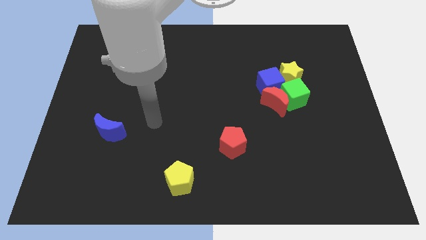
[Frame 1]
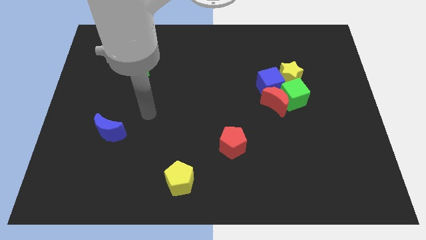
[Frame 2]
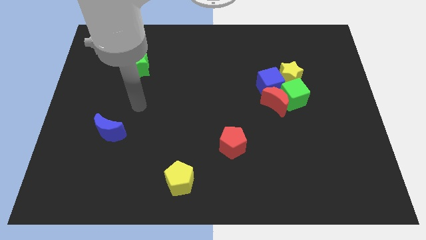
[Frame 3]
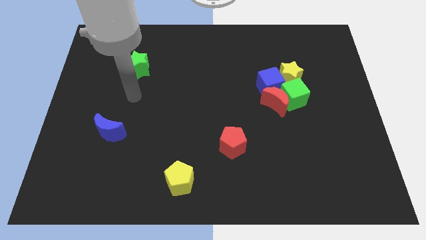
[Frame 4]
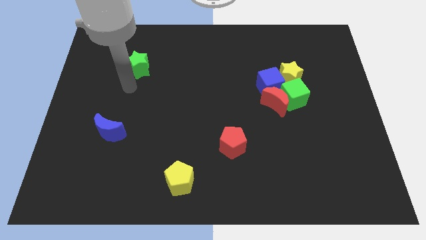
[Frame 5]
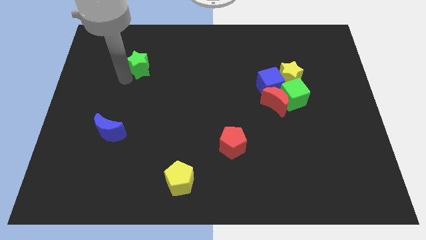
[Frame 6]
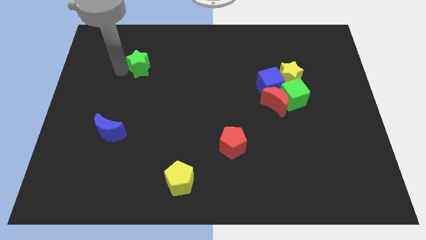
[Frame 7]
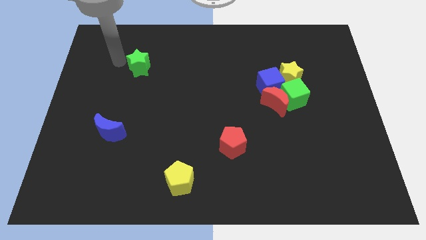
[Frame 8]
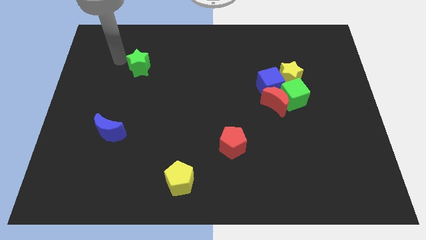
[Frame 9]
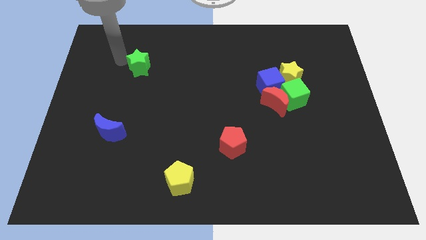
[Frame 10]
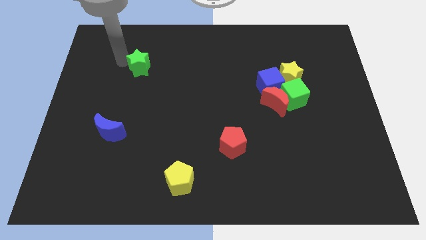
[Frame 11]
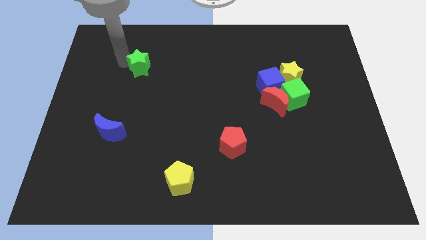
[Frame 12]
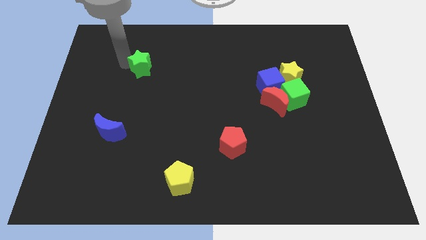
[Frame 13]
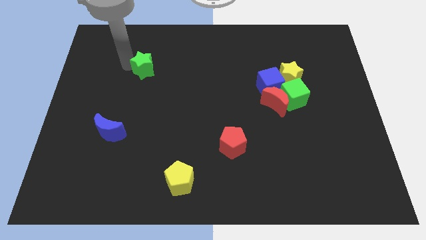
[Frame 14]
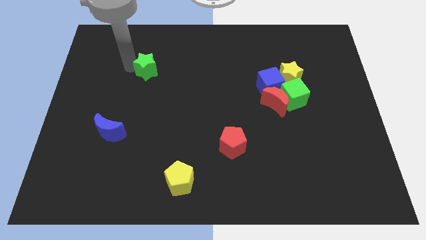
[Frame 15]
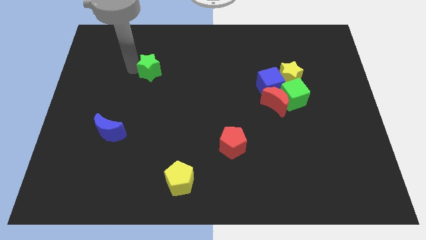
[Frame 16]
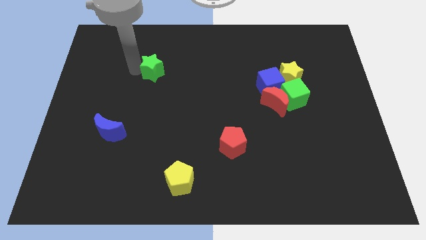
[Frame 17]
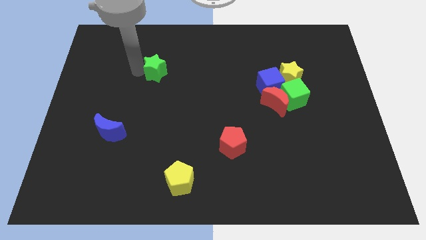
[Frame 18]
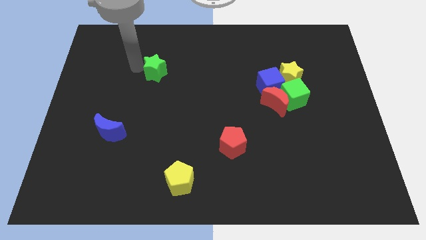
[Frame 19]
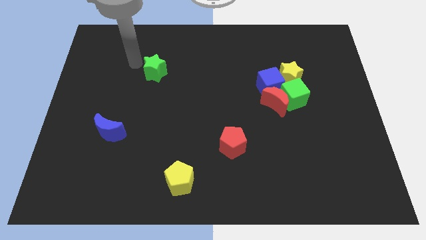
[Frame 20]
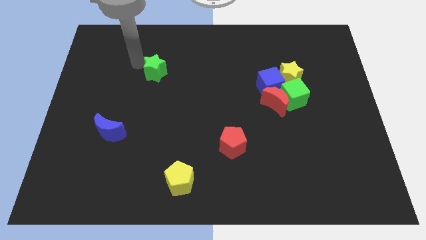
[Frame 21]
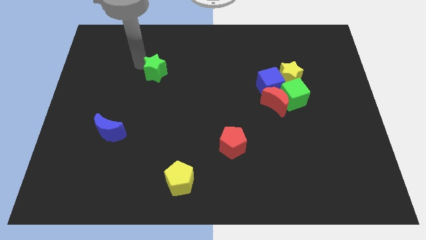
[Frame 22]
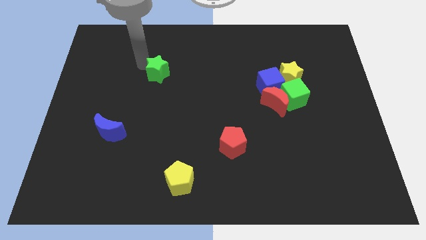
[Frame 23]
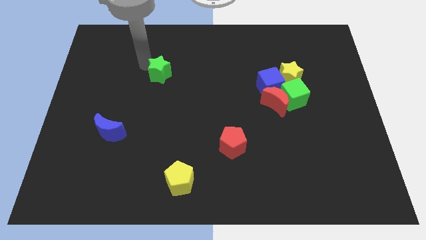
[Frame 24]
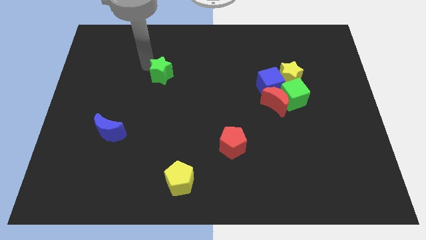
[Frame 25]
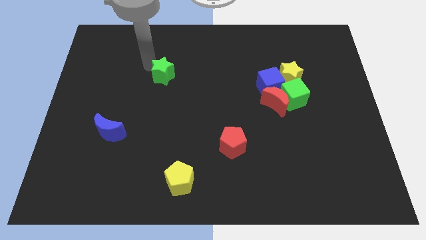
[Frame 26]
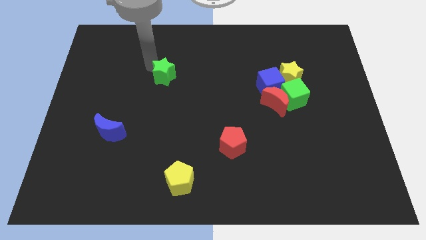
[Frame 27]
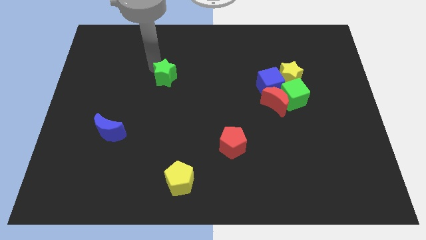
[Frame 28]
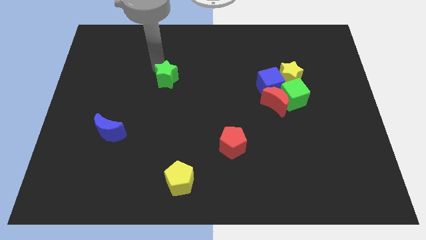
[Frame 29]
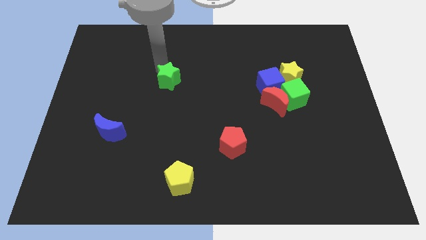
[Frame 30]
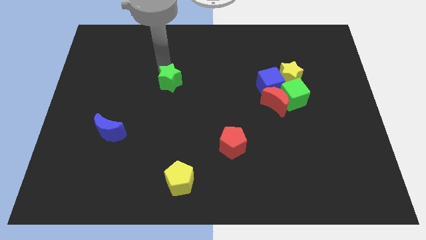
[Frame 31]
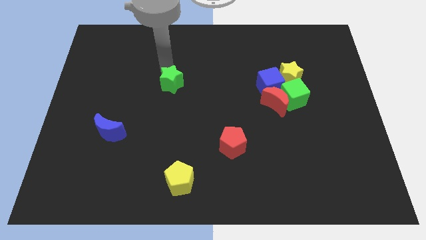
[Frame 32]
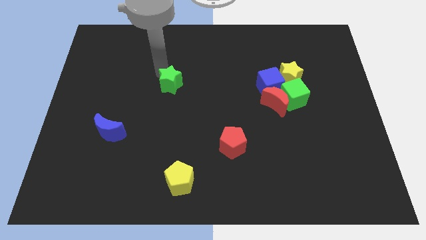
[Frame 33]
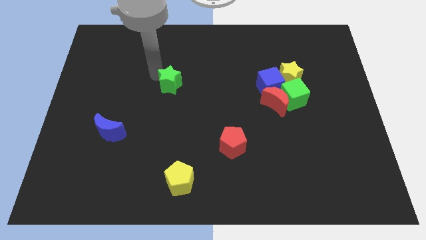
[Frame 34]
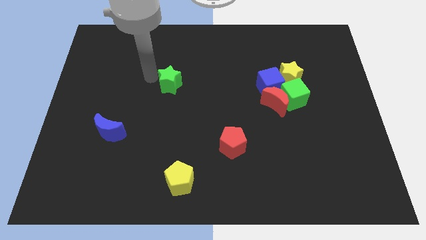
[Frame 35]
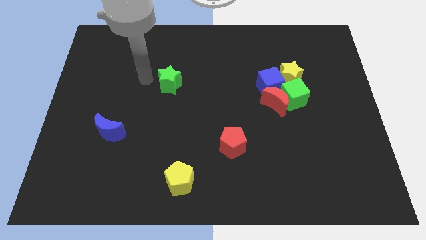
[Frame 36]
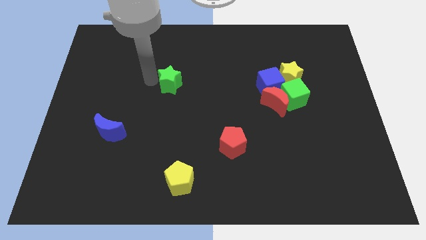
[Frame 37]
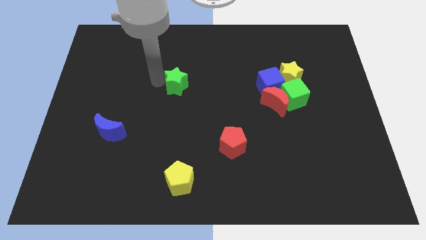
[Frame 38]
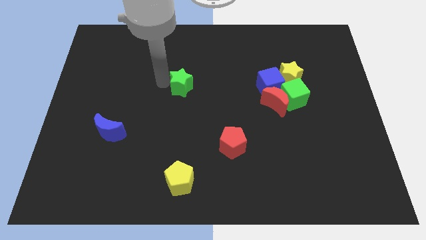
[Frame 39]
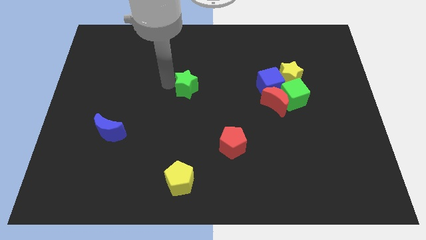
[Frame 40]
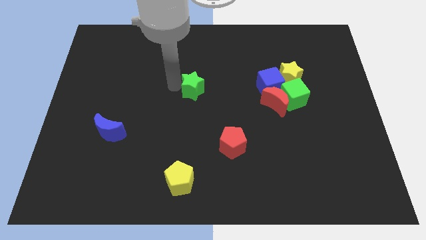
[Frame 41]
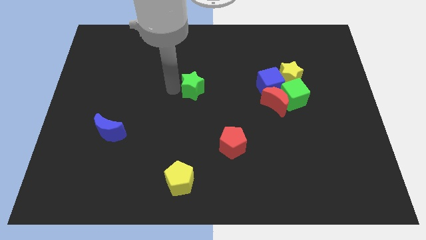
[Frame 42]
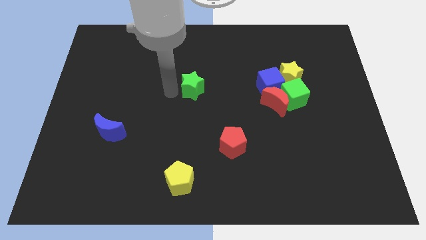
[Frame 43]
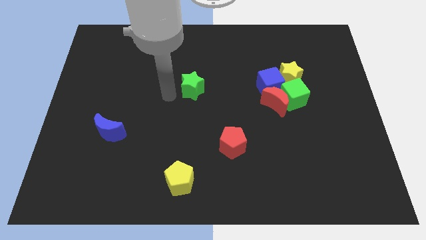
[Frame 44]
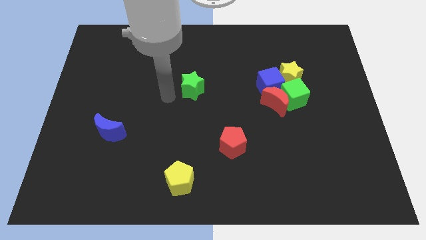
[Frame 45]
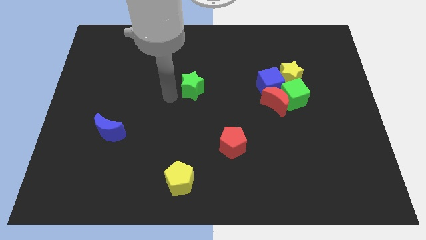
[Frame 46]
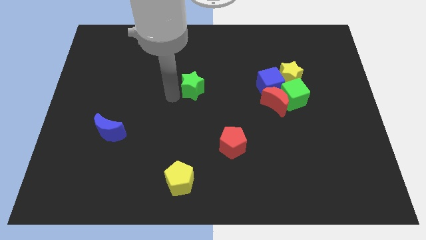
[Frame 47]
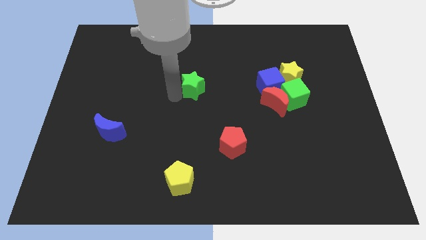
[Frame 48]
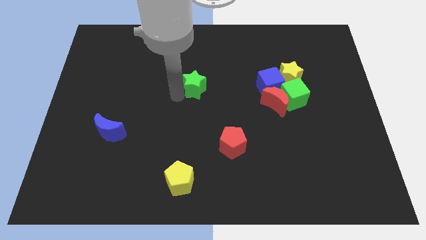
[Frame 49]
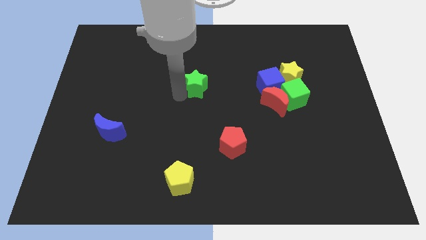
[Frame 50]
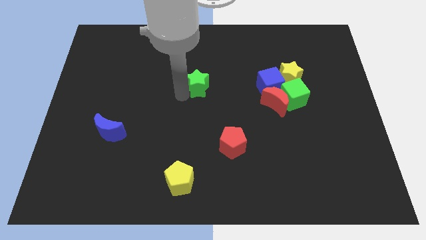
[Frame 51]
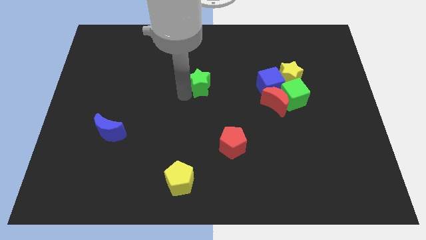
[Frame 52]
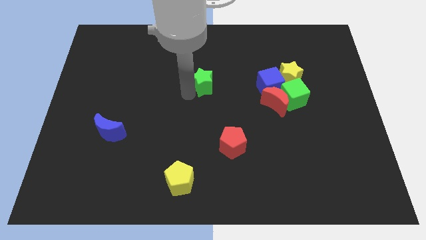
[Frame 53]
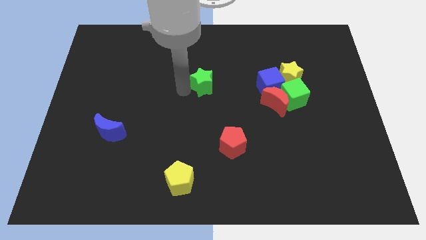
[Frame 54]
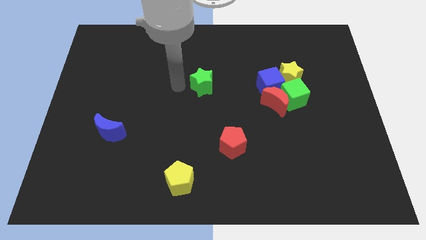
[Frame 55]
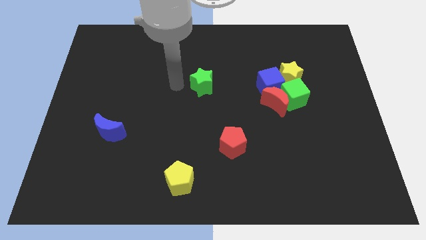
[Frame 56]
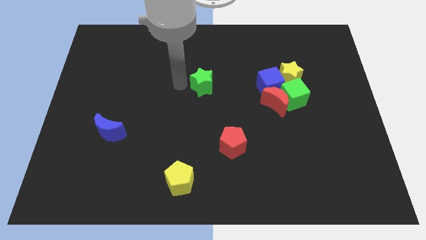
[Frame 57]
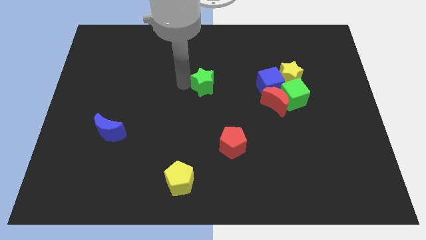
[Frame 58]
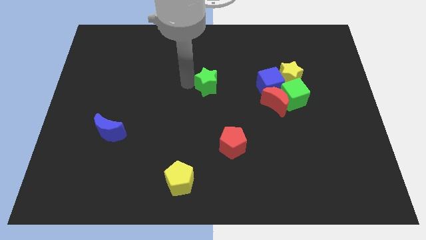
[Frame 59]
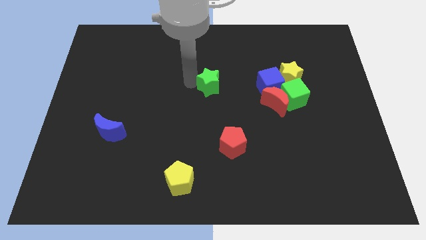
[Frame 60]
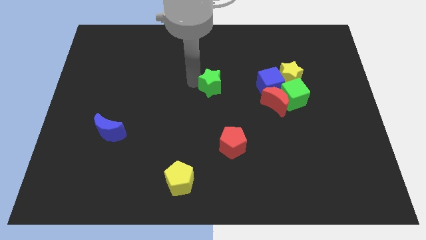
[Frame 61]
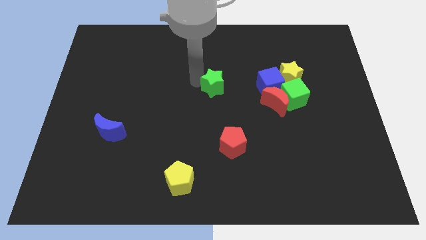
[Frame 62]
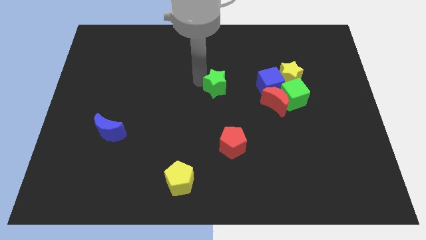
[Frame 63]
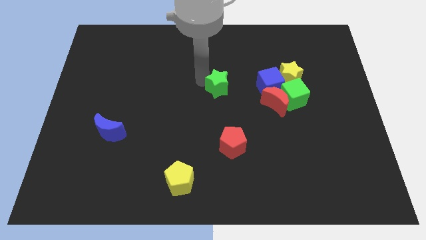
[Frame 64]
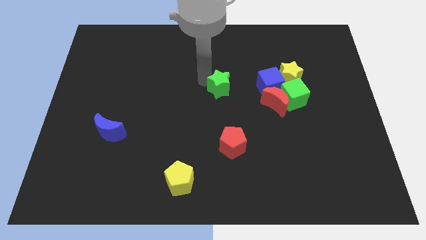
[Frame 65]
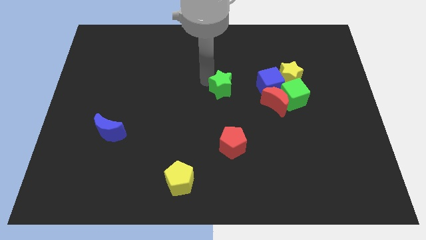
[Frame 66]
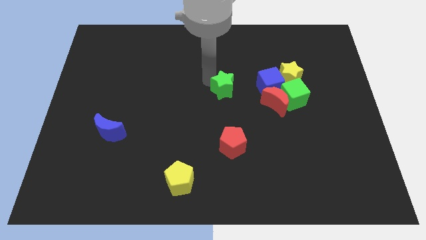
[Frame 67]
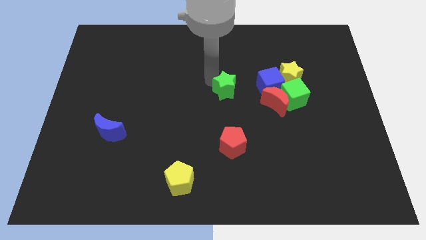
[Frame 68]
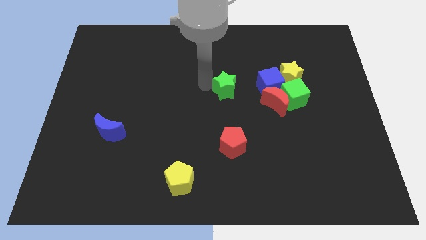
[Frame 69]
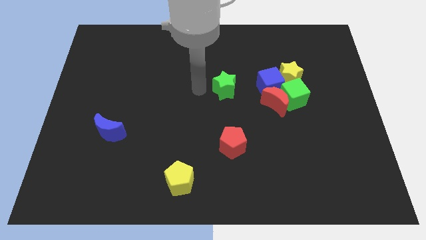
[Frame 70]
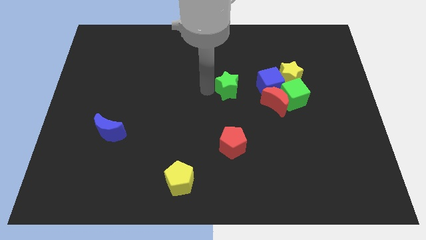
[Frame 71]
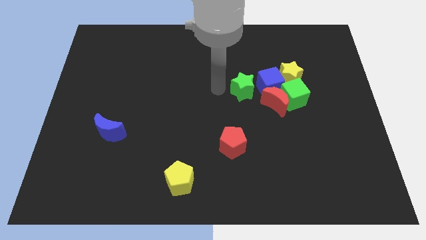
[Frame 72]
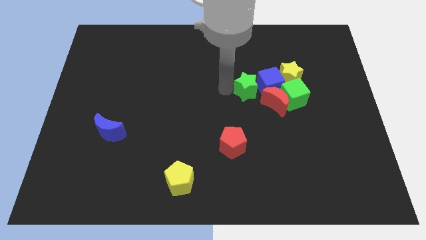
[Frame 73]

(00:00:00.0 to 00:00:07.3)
move the green star towards the blue cube
